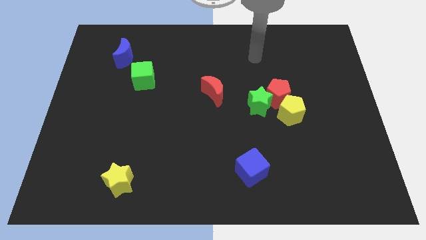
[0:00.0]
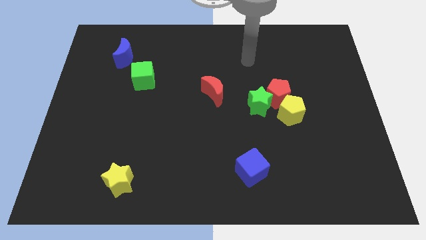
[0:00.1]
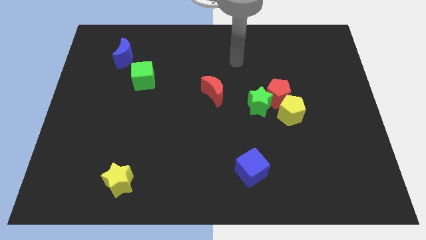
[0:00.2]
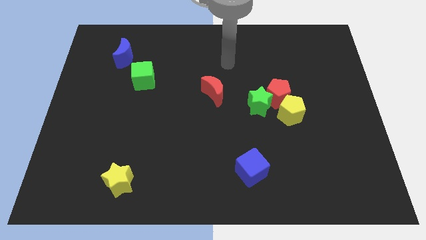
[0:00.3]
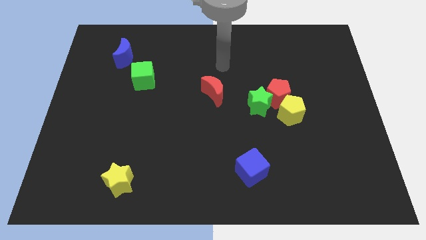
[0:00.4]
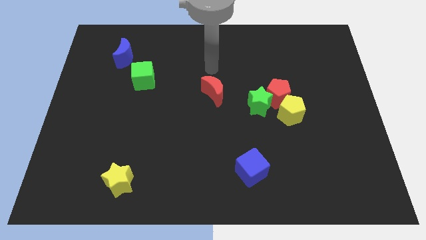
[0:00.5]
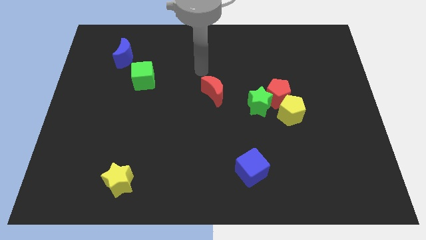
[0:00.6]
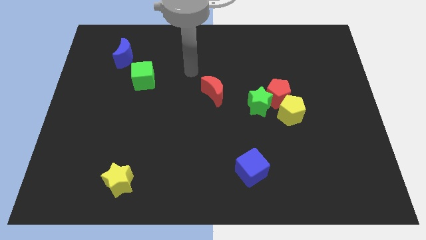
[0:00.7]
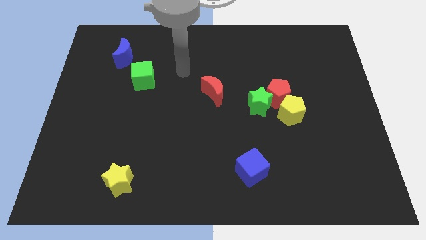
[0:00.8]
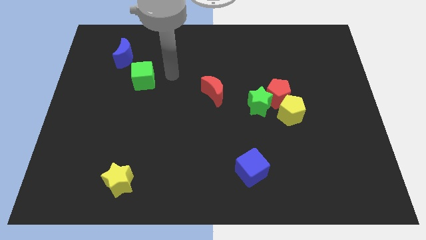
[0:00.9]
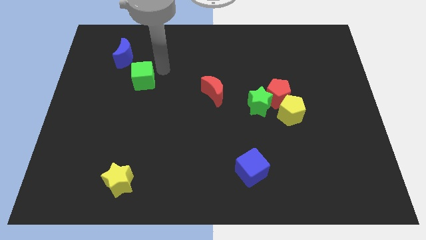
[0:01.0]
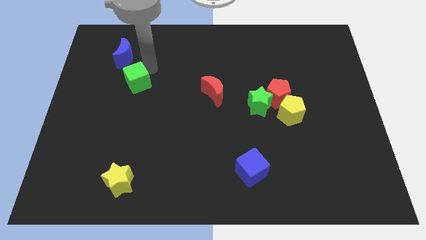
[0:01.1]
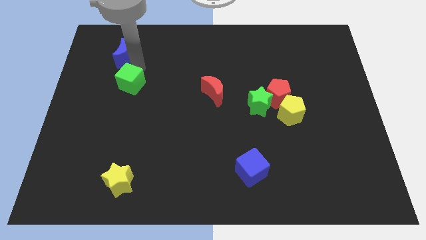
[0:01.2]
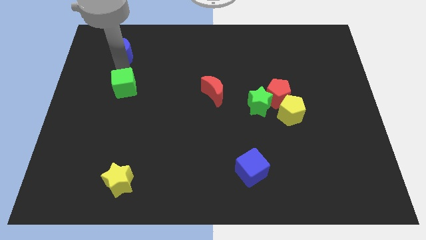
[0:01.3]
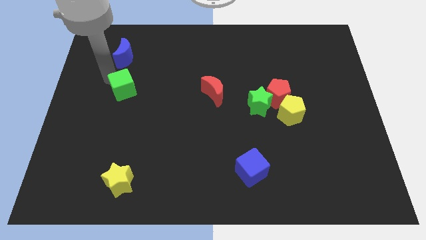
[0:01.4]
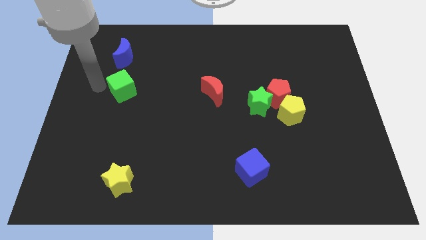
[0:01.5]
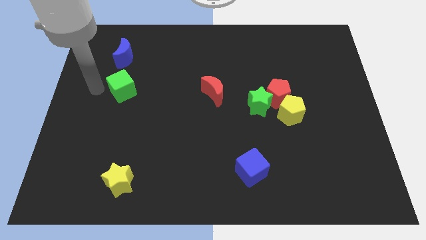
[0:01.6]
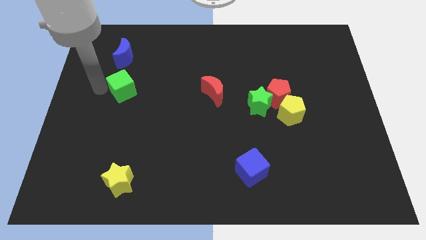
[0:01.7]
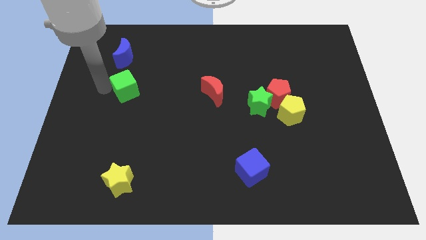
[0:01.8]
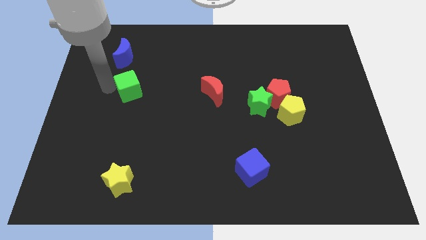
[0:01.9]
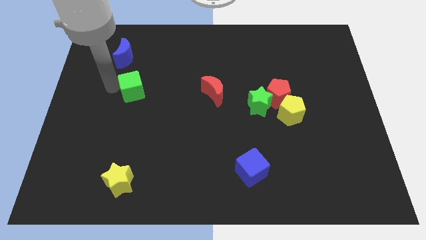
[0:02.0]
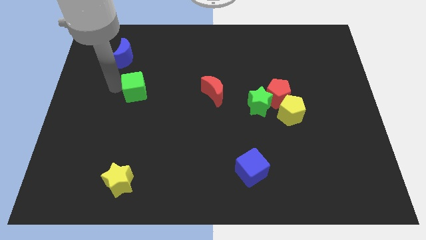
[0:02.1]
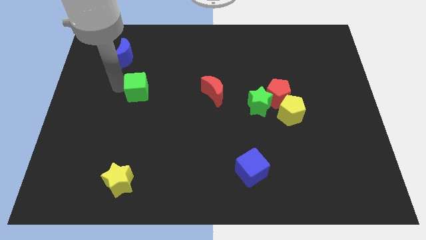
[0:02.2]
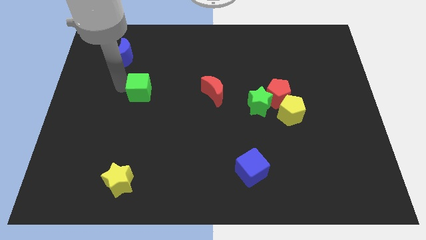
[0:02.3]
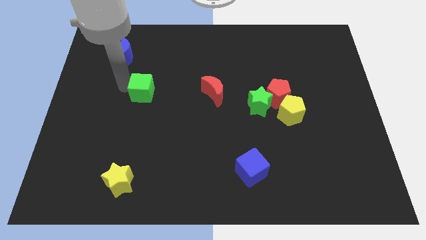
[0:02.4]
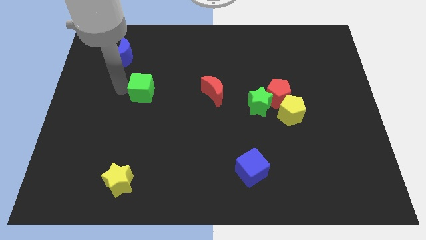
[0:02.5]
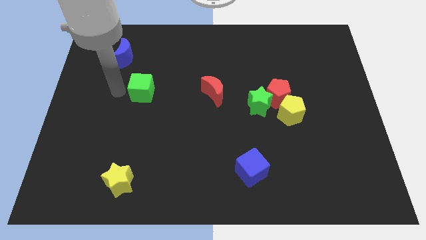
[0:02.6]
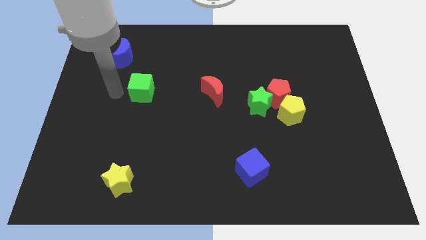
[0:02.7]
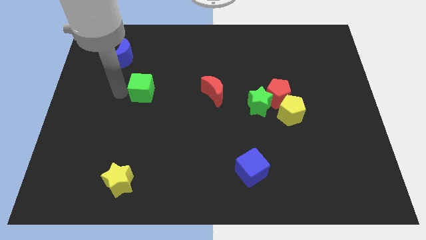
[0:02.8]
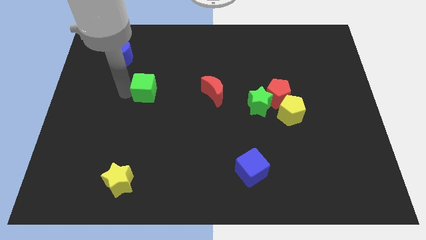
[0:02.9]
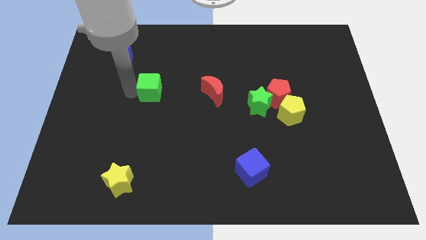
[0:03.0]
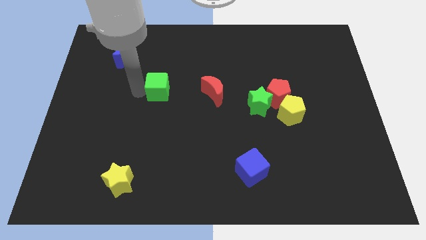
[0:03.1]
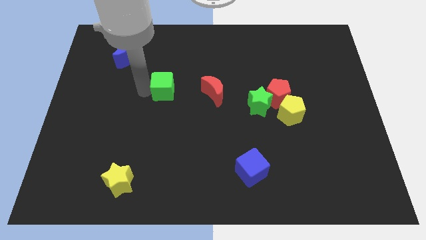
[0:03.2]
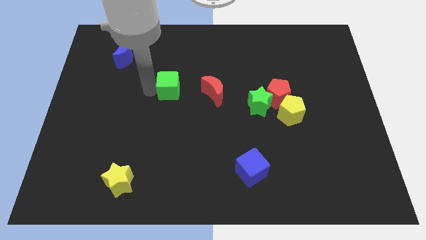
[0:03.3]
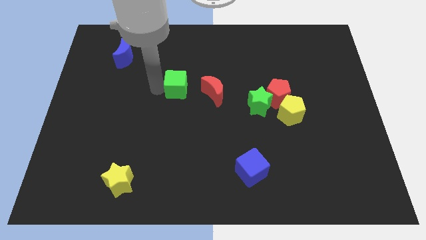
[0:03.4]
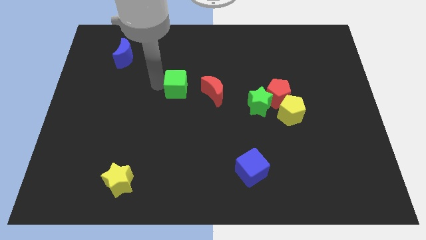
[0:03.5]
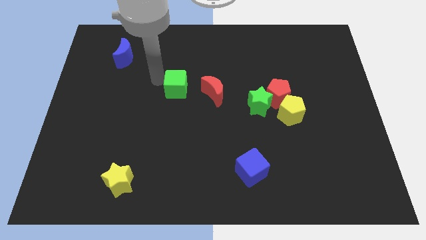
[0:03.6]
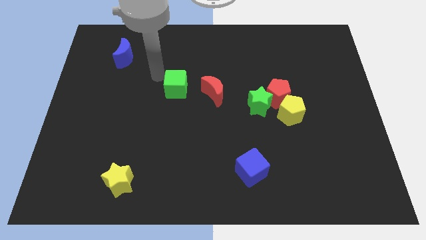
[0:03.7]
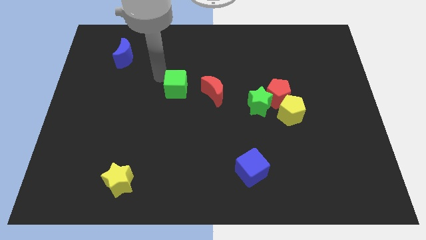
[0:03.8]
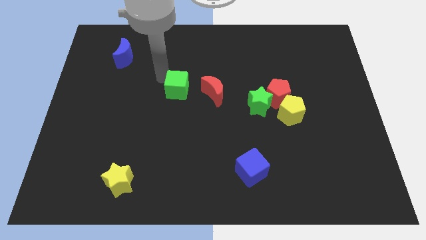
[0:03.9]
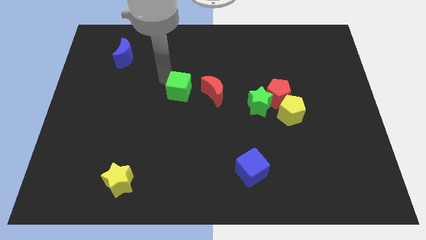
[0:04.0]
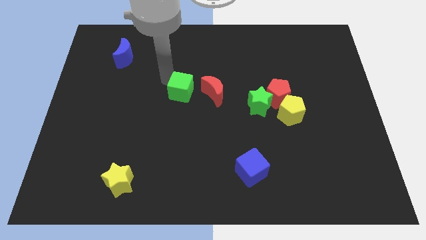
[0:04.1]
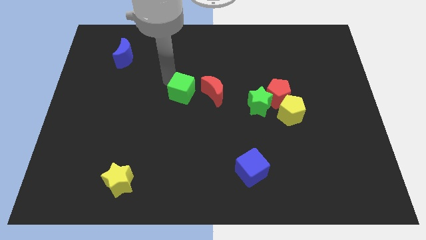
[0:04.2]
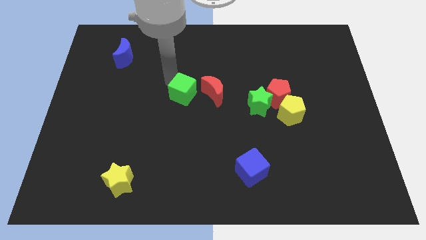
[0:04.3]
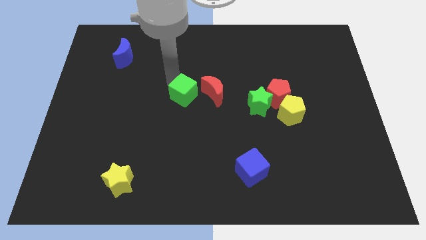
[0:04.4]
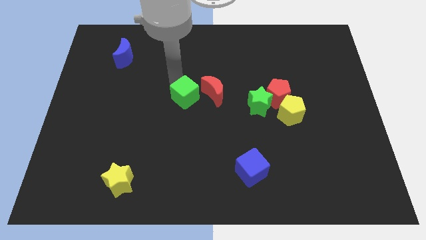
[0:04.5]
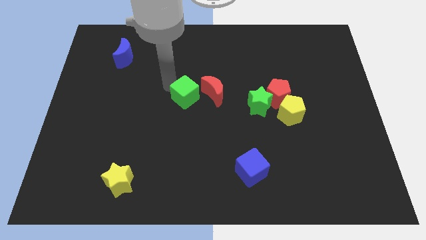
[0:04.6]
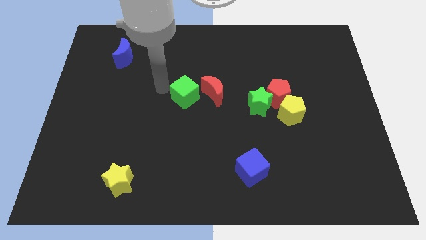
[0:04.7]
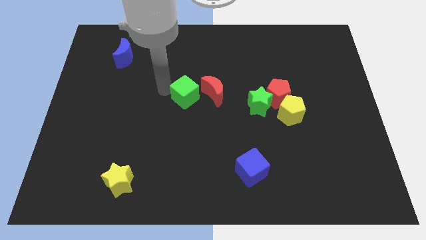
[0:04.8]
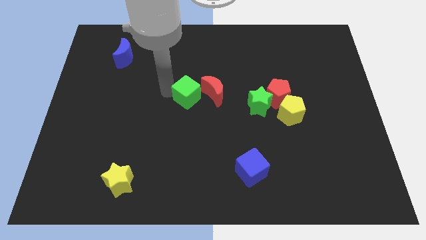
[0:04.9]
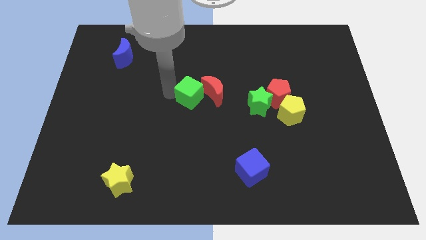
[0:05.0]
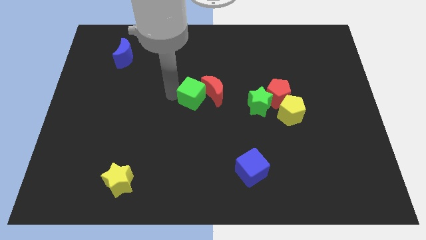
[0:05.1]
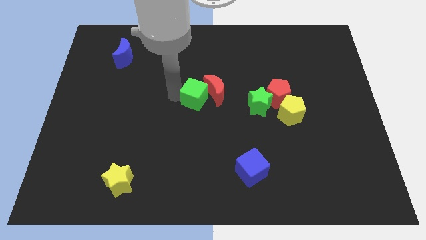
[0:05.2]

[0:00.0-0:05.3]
put the green cube left of the green star

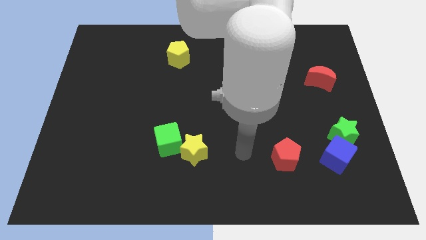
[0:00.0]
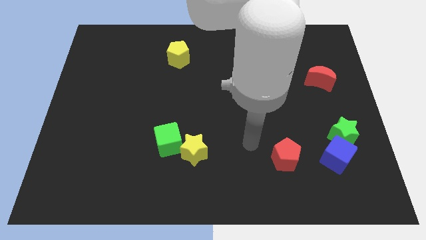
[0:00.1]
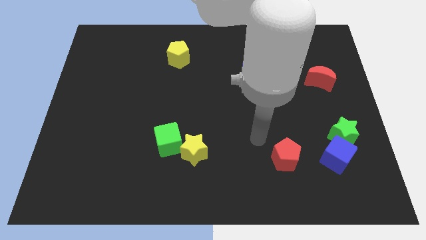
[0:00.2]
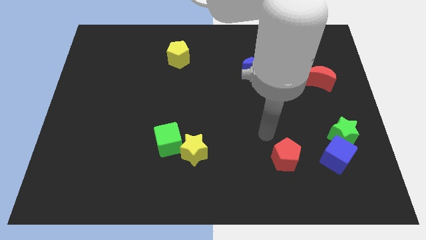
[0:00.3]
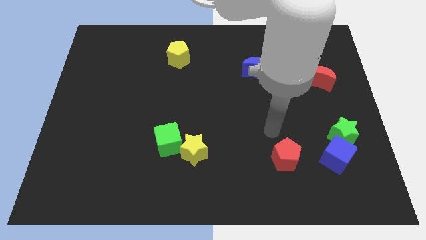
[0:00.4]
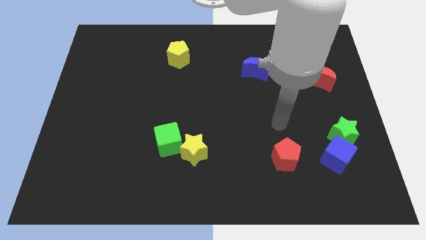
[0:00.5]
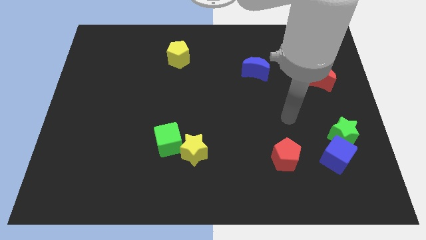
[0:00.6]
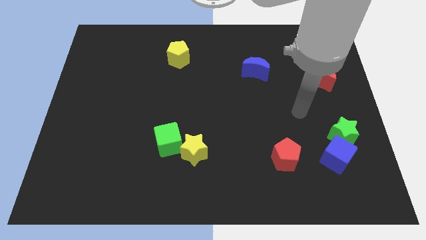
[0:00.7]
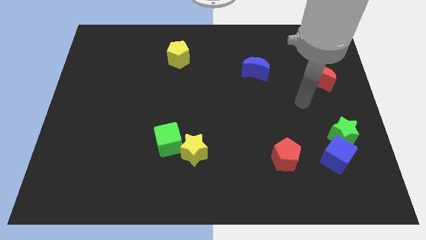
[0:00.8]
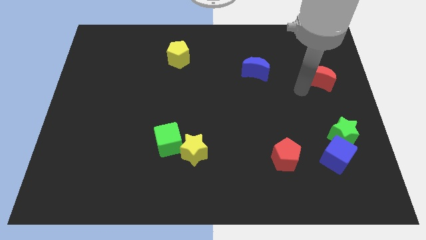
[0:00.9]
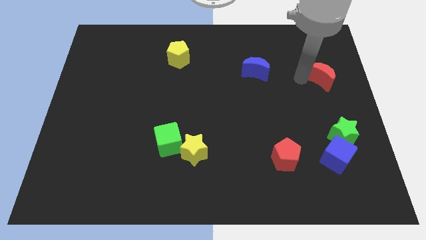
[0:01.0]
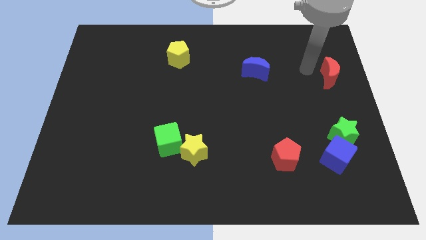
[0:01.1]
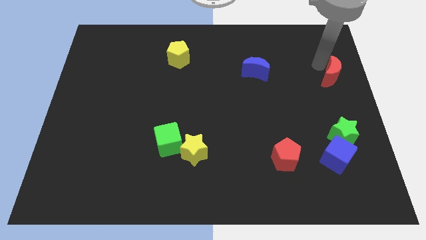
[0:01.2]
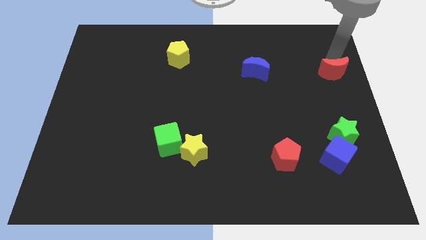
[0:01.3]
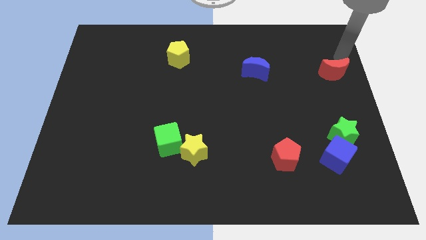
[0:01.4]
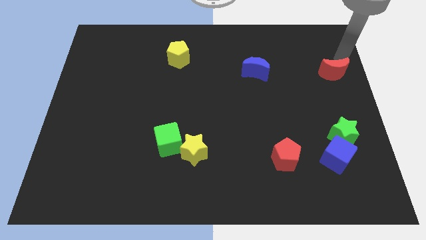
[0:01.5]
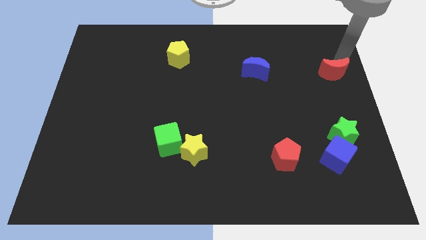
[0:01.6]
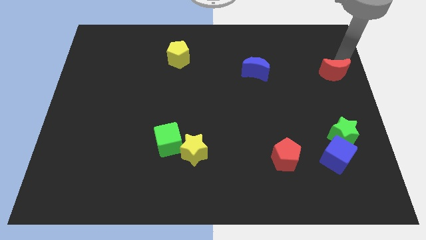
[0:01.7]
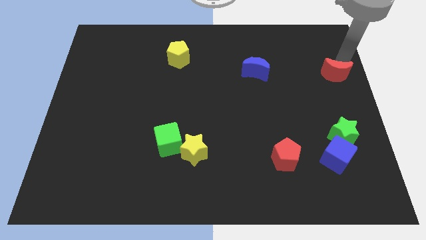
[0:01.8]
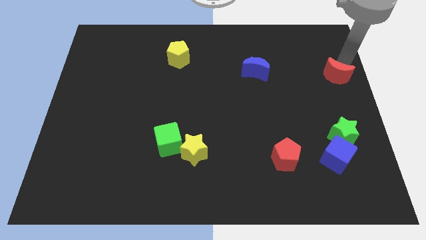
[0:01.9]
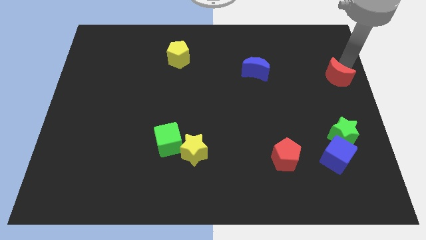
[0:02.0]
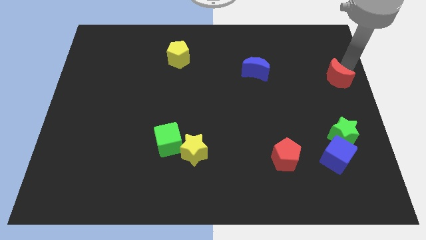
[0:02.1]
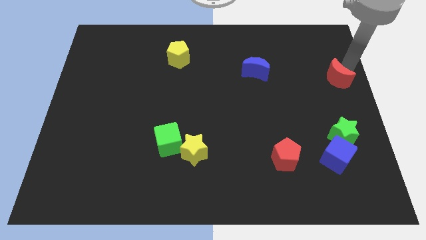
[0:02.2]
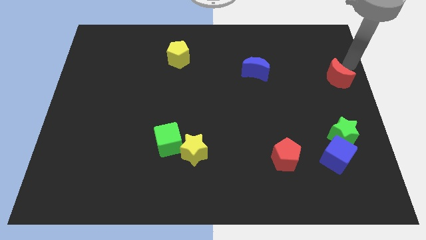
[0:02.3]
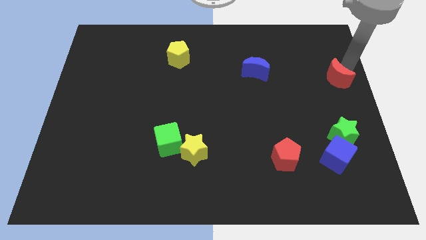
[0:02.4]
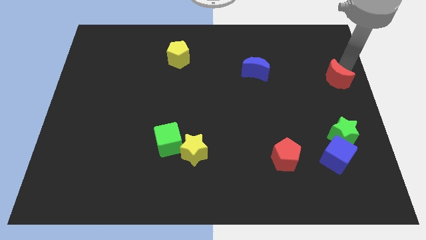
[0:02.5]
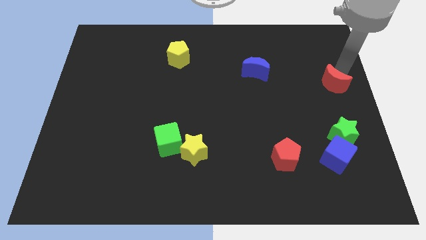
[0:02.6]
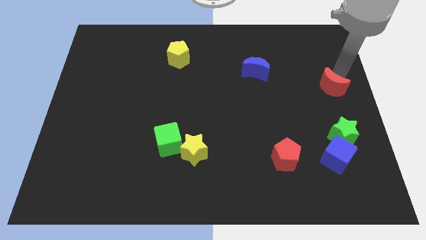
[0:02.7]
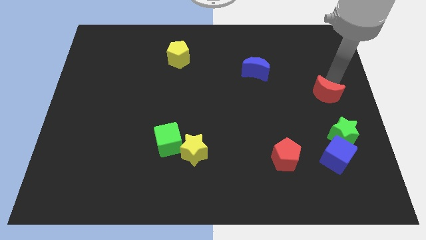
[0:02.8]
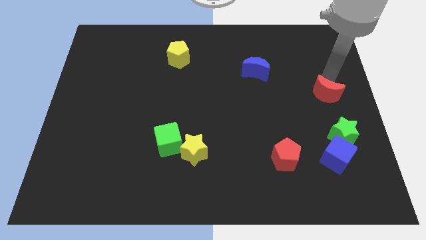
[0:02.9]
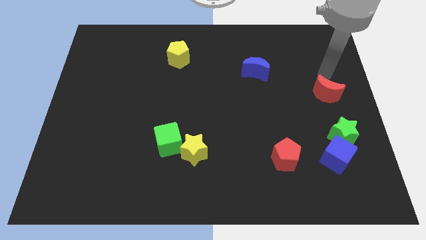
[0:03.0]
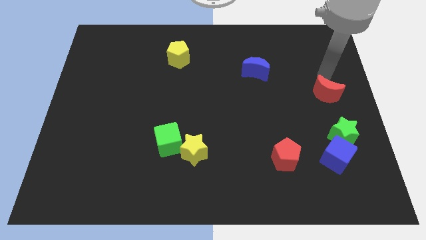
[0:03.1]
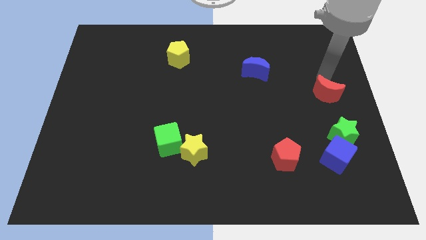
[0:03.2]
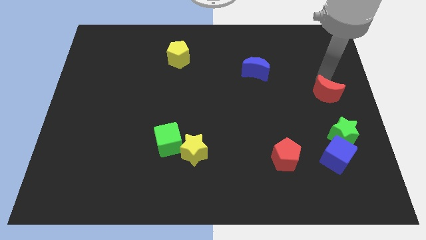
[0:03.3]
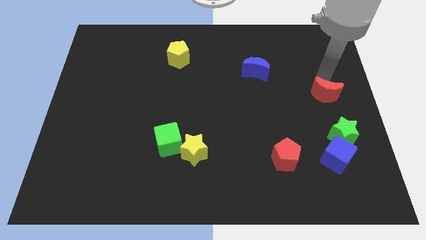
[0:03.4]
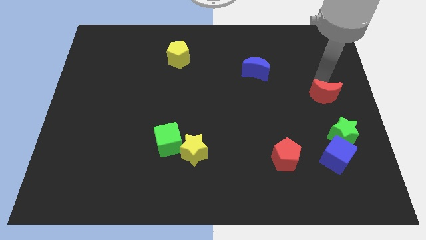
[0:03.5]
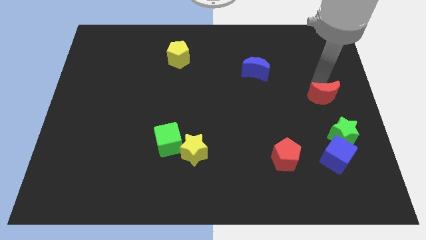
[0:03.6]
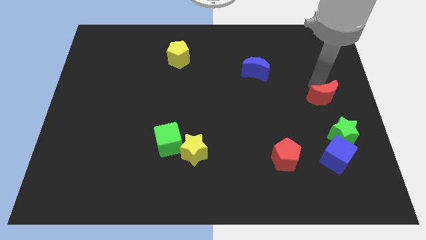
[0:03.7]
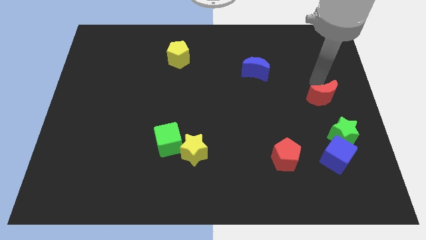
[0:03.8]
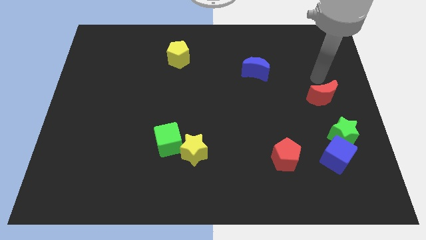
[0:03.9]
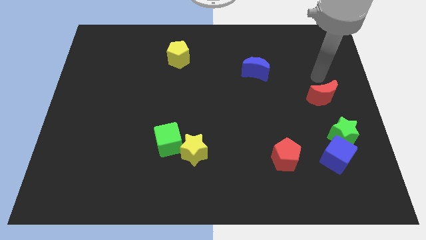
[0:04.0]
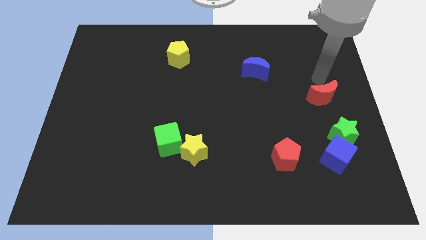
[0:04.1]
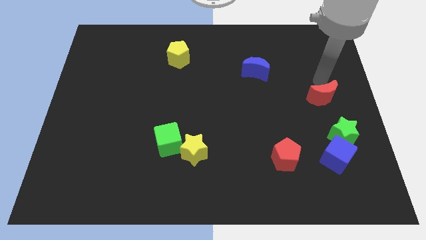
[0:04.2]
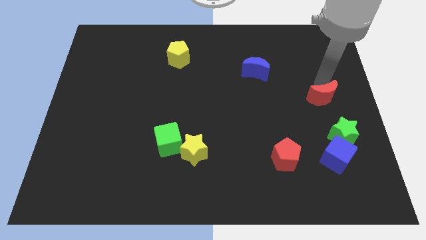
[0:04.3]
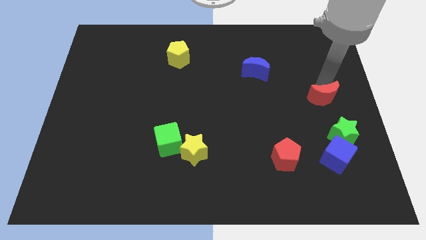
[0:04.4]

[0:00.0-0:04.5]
move the red moon above the blue cube
